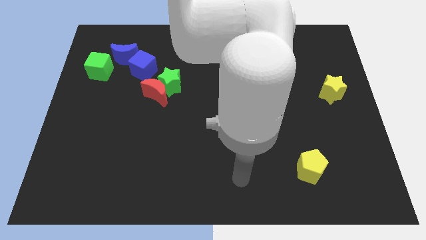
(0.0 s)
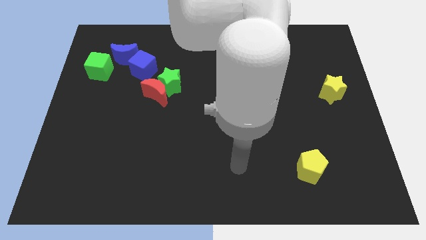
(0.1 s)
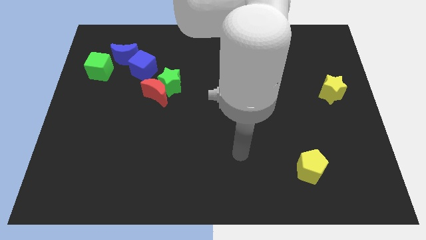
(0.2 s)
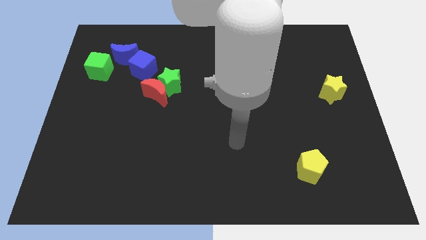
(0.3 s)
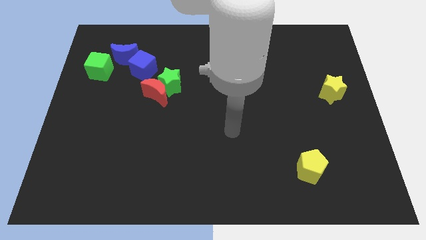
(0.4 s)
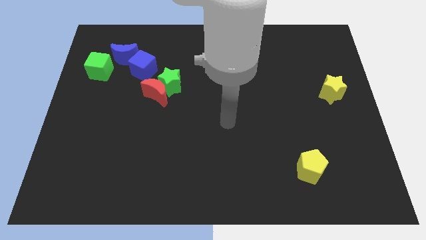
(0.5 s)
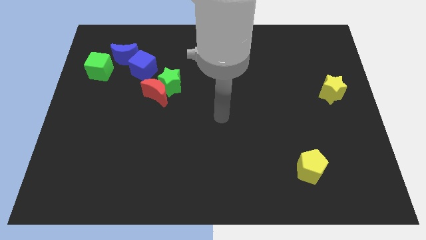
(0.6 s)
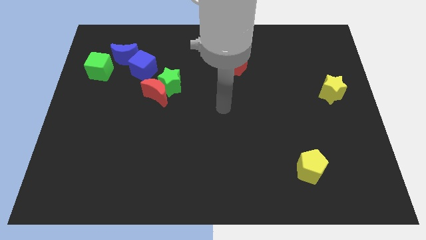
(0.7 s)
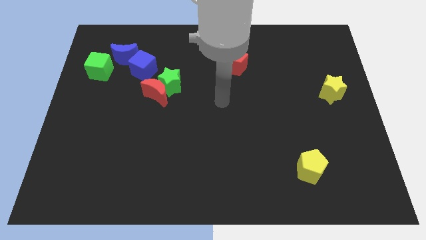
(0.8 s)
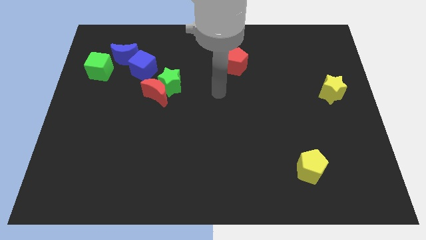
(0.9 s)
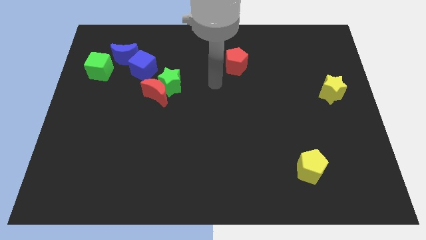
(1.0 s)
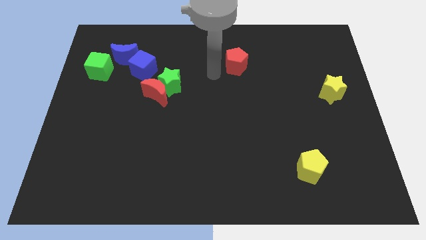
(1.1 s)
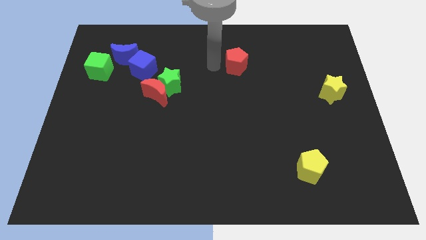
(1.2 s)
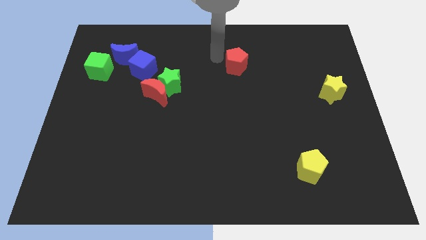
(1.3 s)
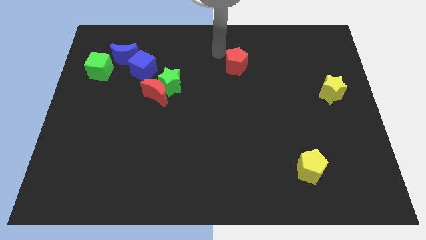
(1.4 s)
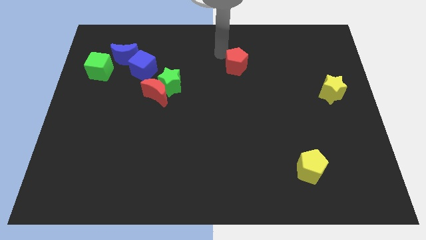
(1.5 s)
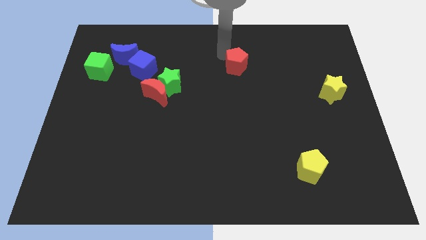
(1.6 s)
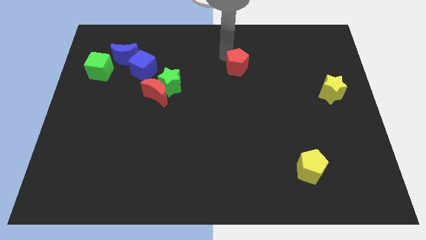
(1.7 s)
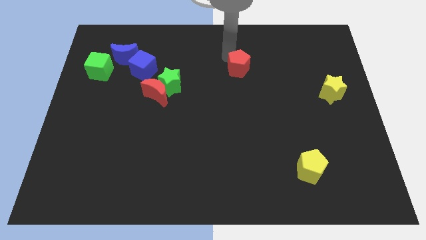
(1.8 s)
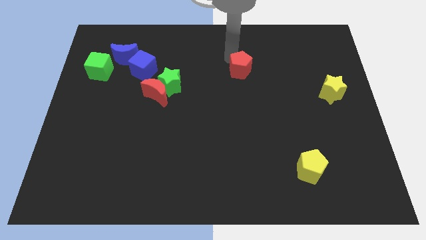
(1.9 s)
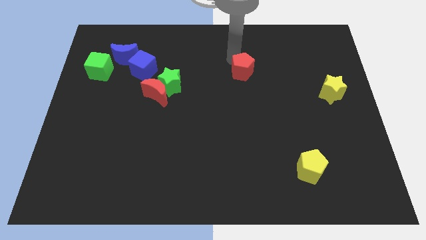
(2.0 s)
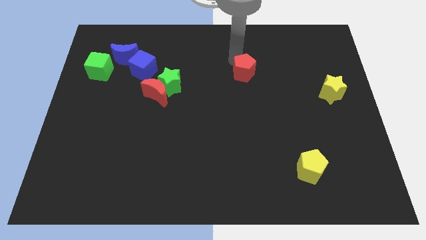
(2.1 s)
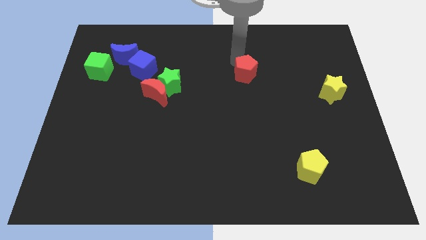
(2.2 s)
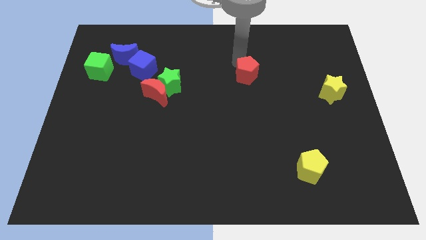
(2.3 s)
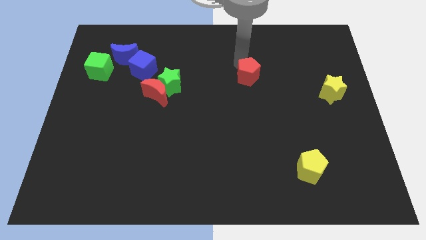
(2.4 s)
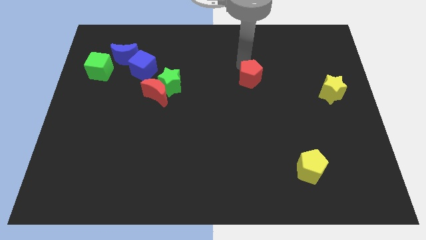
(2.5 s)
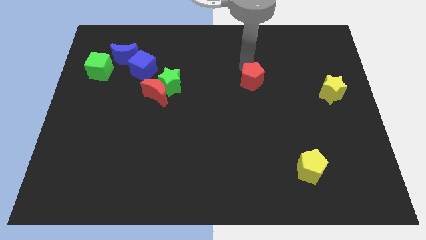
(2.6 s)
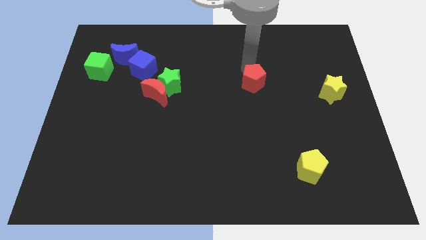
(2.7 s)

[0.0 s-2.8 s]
slide the red pentagon downwards and to the right a little bit

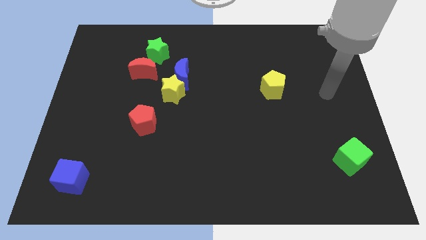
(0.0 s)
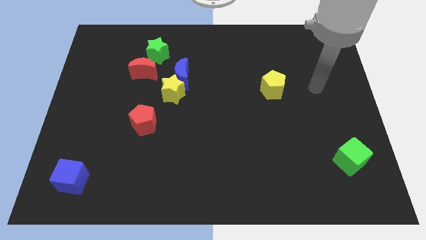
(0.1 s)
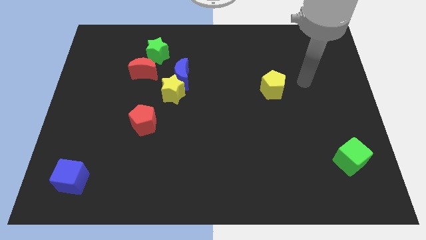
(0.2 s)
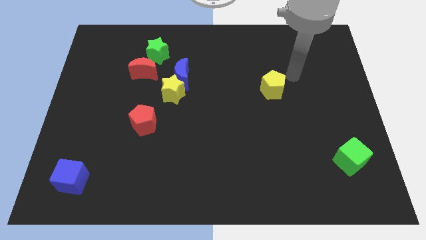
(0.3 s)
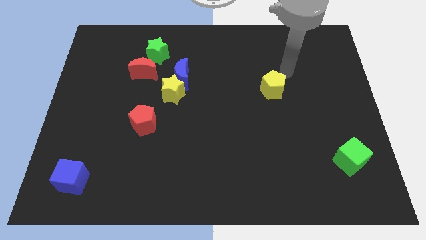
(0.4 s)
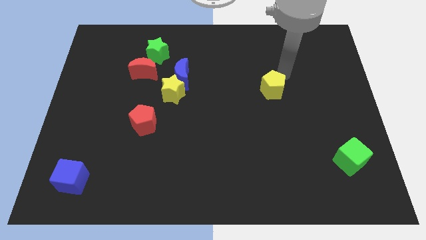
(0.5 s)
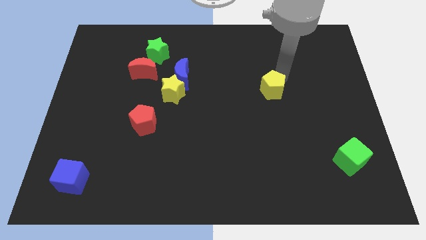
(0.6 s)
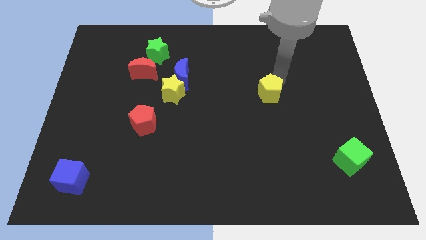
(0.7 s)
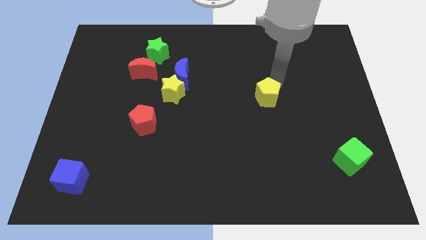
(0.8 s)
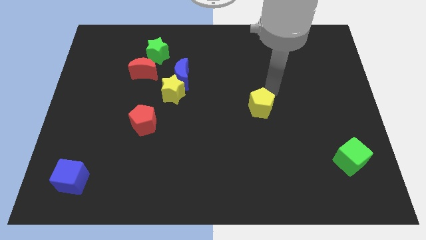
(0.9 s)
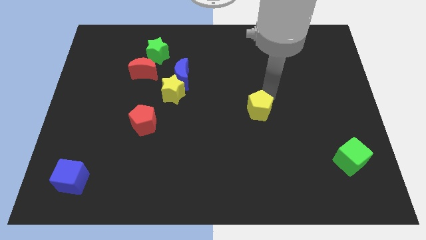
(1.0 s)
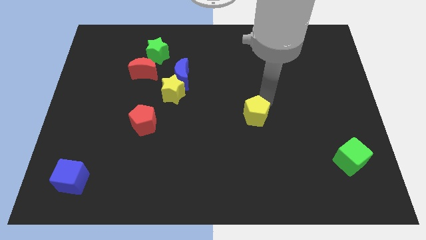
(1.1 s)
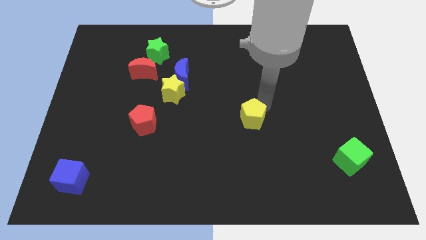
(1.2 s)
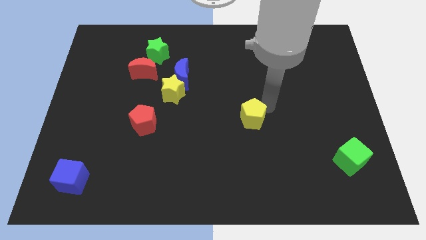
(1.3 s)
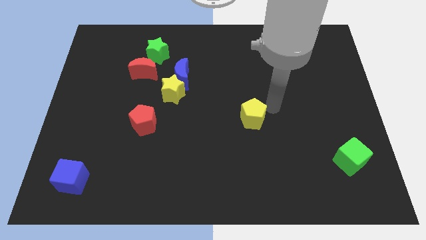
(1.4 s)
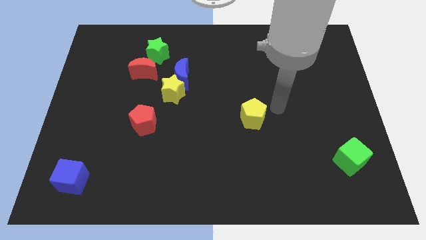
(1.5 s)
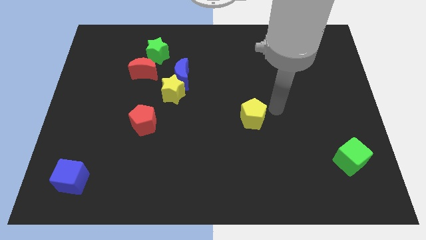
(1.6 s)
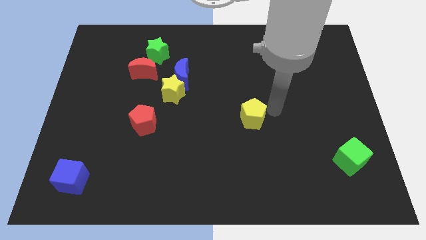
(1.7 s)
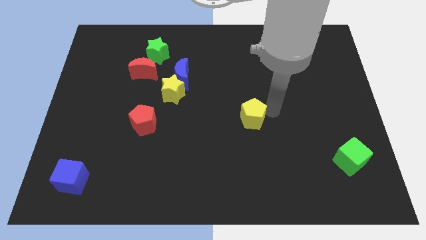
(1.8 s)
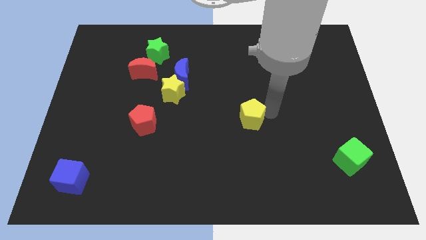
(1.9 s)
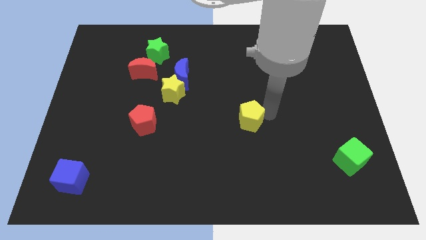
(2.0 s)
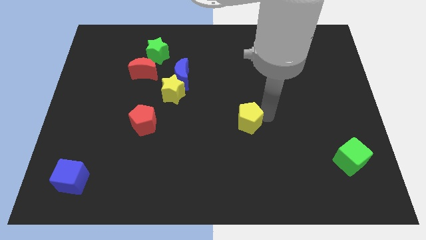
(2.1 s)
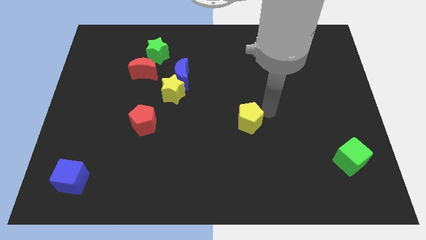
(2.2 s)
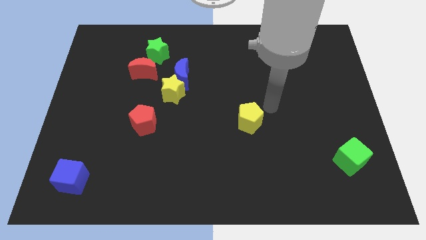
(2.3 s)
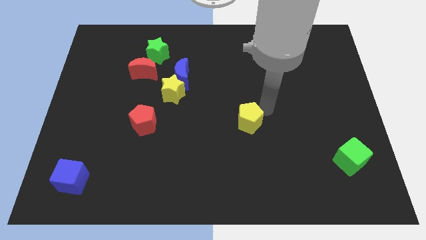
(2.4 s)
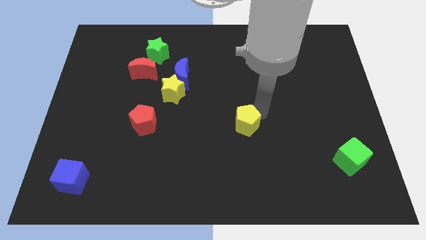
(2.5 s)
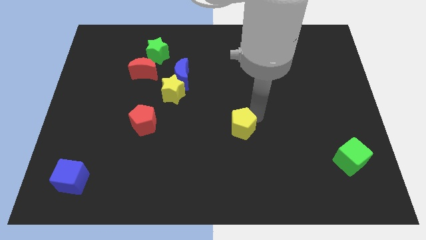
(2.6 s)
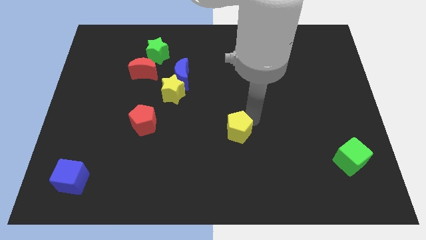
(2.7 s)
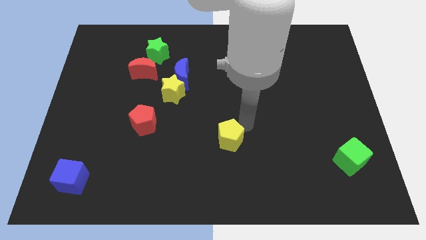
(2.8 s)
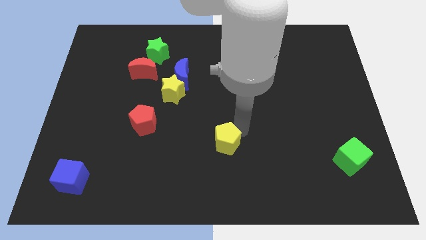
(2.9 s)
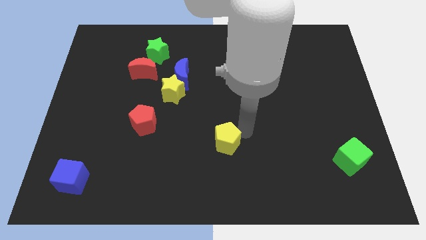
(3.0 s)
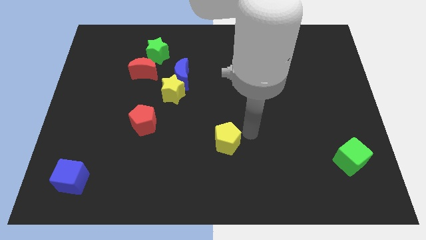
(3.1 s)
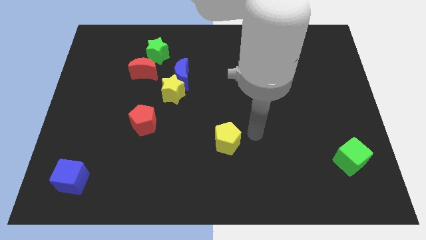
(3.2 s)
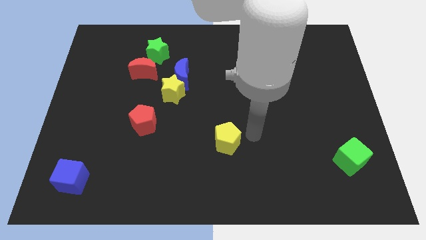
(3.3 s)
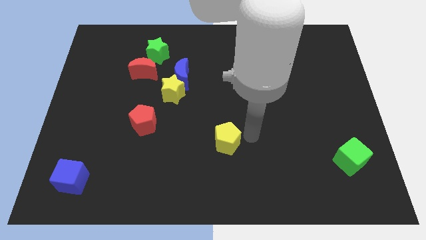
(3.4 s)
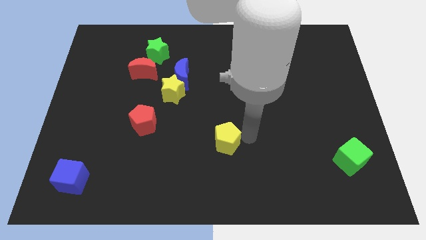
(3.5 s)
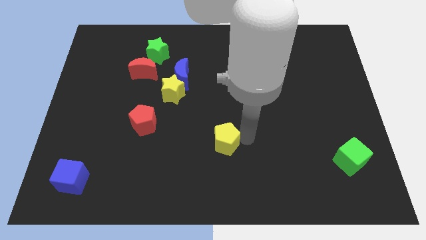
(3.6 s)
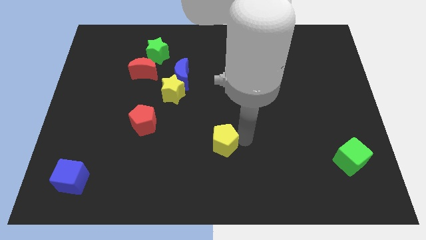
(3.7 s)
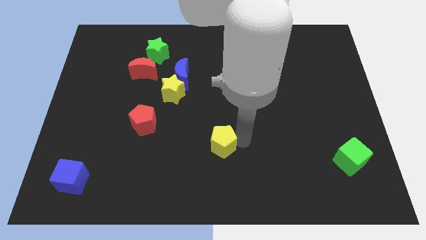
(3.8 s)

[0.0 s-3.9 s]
slide the yellow pentagon down and to the left diagonally

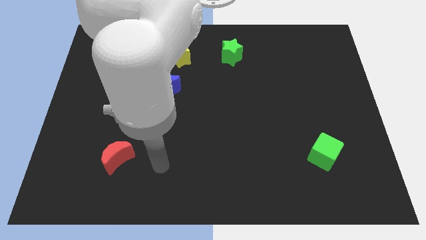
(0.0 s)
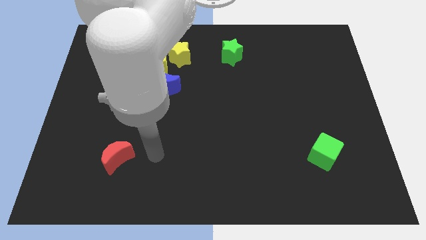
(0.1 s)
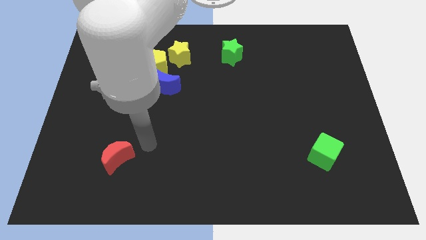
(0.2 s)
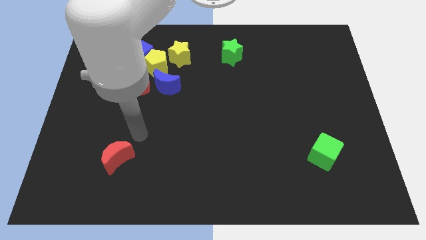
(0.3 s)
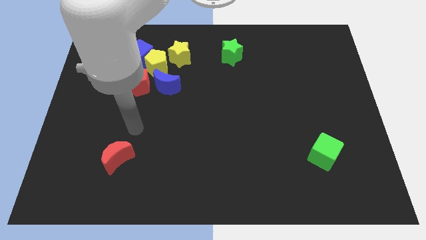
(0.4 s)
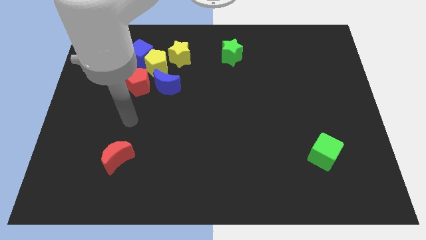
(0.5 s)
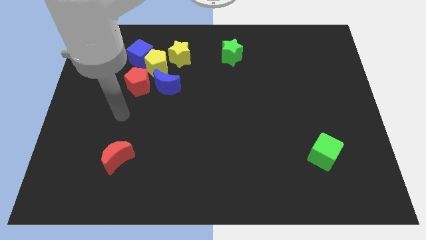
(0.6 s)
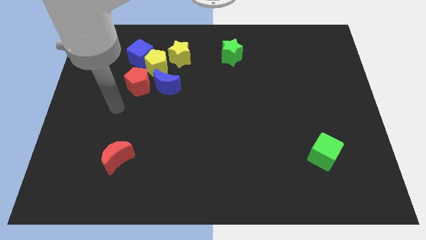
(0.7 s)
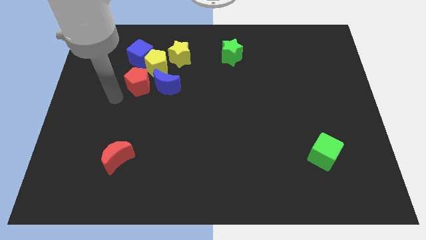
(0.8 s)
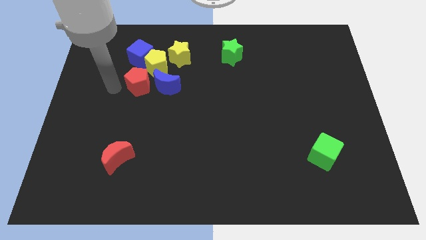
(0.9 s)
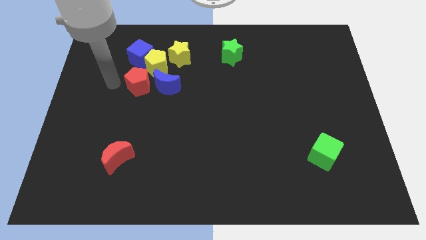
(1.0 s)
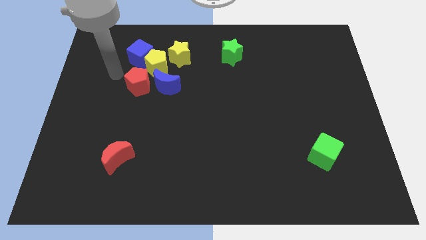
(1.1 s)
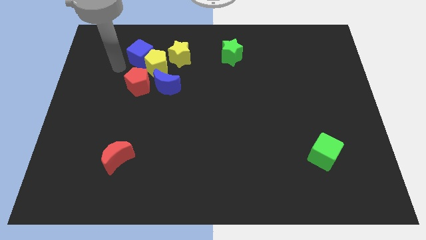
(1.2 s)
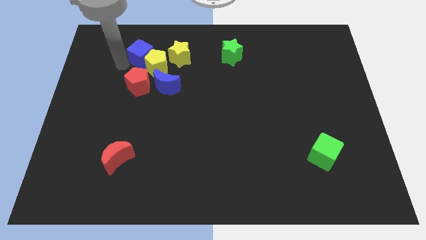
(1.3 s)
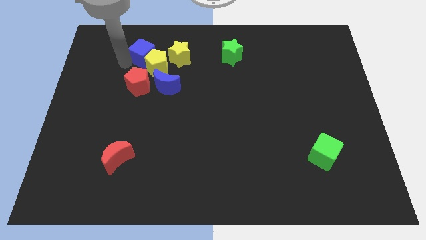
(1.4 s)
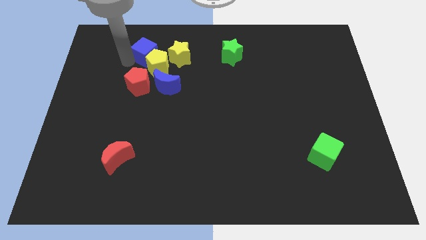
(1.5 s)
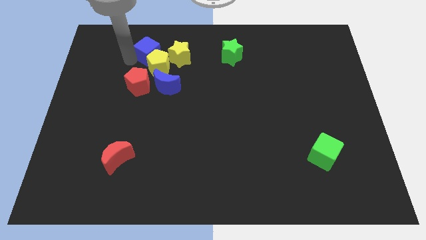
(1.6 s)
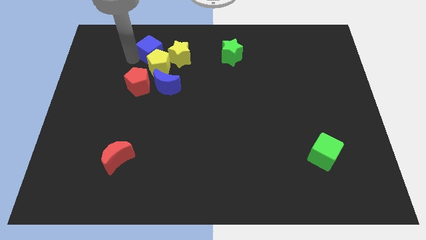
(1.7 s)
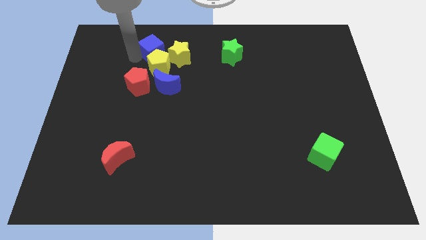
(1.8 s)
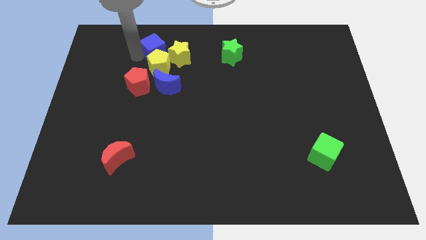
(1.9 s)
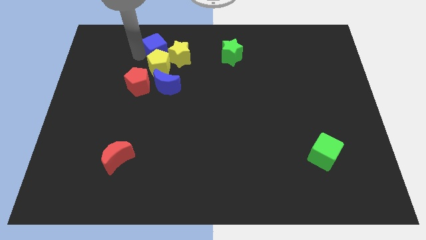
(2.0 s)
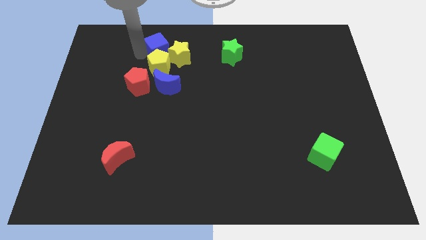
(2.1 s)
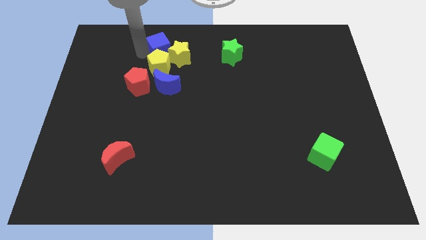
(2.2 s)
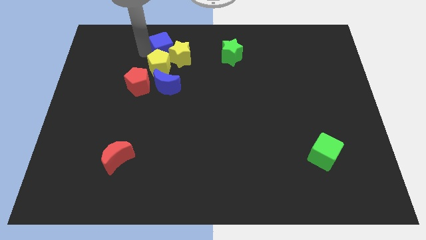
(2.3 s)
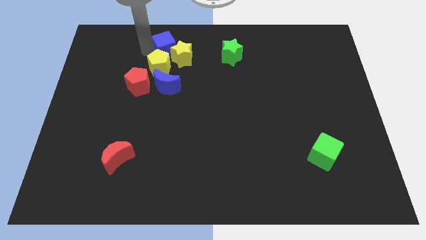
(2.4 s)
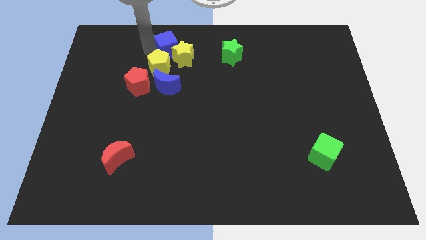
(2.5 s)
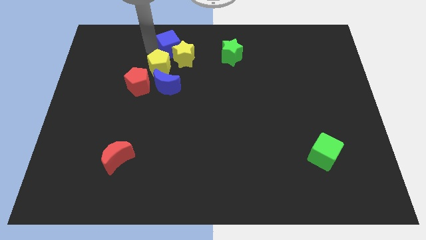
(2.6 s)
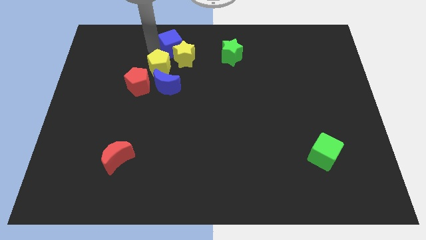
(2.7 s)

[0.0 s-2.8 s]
push the blue cube to the right somewhat
